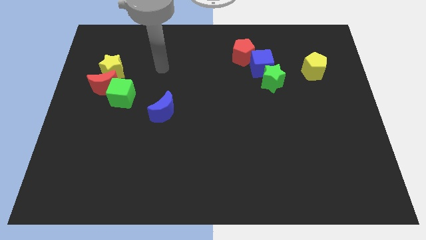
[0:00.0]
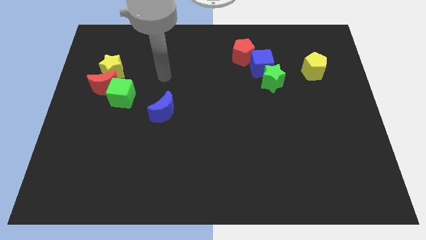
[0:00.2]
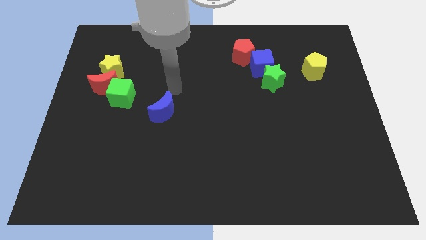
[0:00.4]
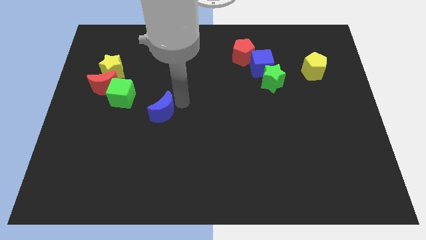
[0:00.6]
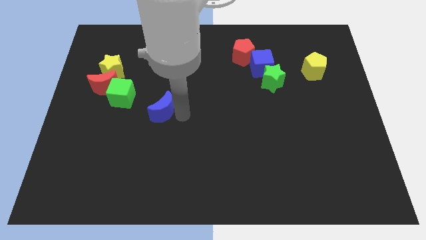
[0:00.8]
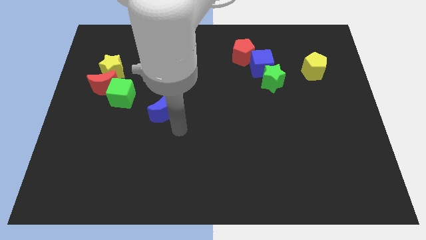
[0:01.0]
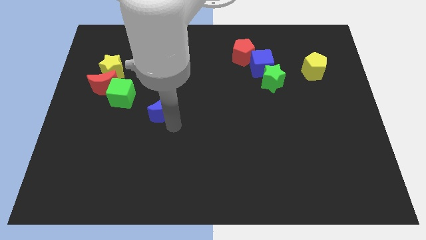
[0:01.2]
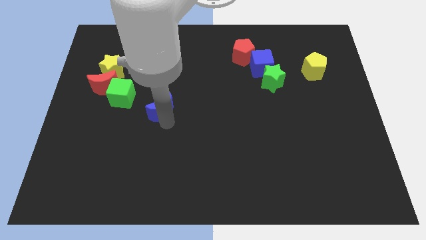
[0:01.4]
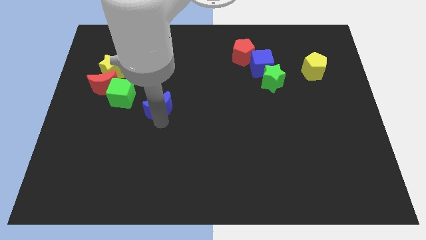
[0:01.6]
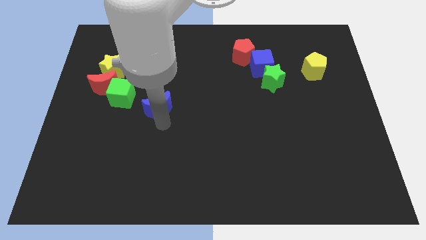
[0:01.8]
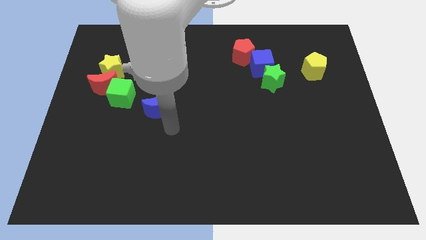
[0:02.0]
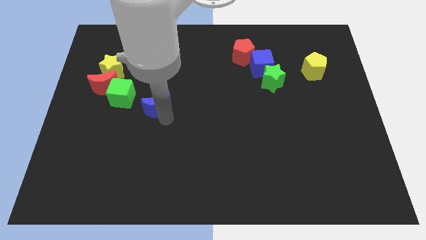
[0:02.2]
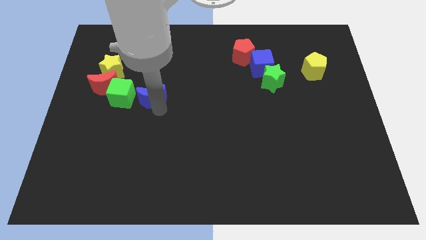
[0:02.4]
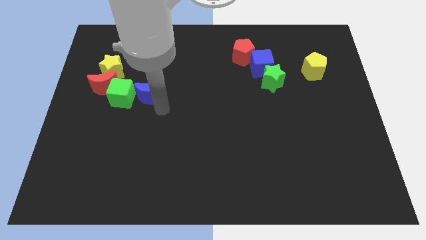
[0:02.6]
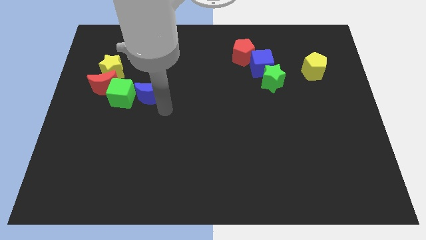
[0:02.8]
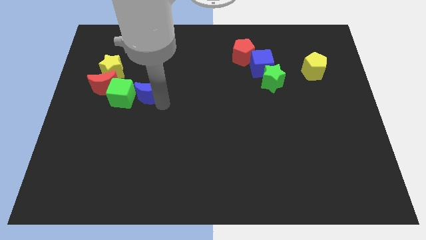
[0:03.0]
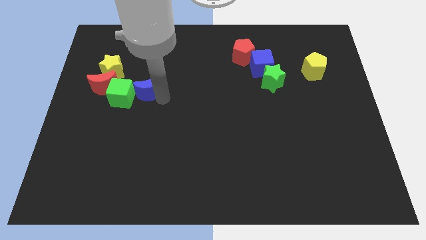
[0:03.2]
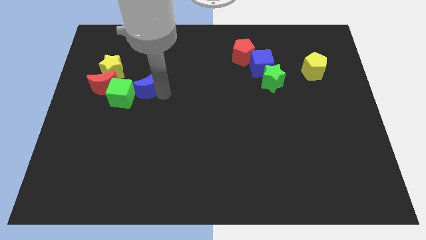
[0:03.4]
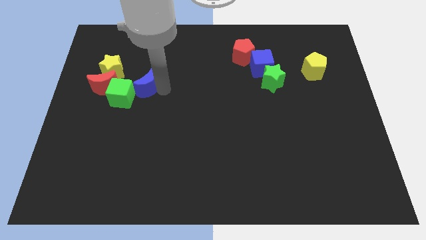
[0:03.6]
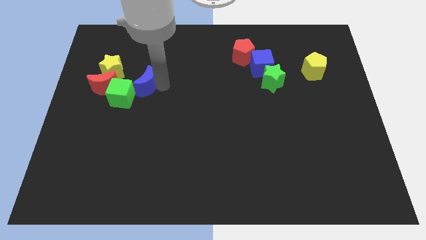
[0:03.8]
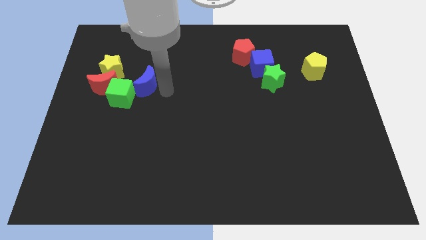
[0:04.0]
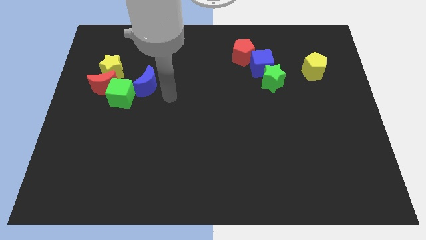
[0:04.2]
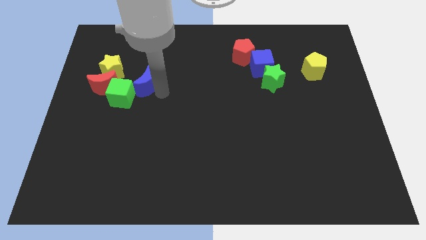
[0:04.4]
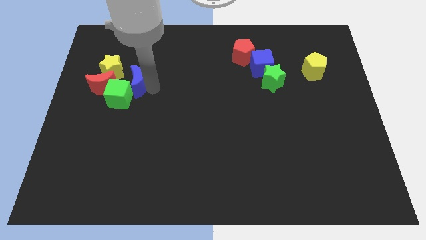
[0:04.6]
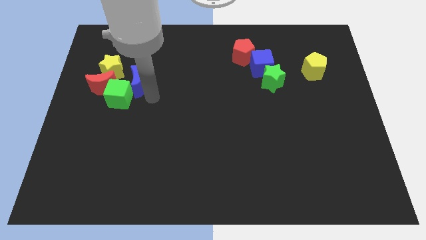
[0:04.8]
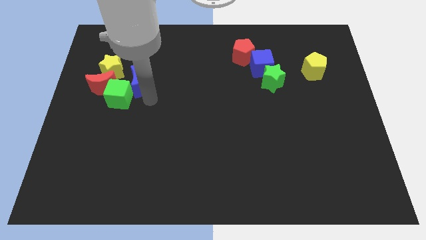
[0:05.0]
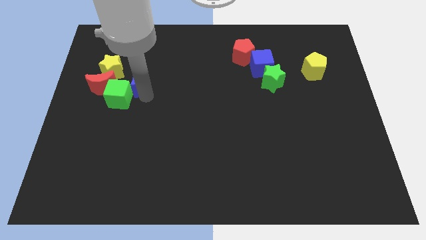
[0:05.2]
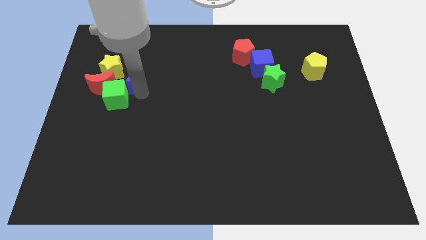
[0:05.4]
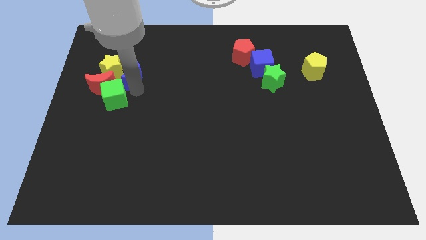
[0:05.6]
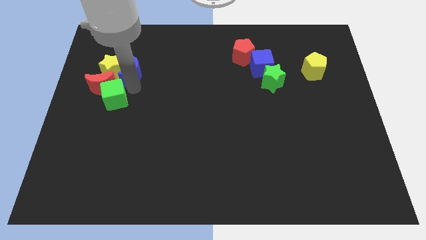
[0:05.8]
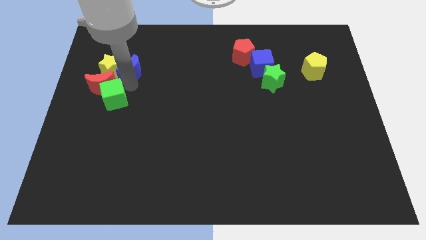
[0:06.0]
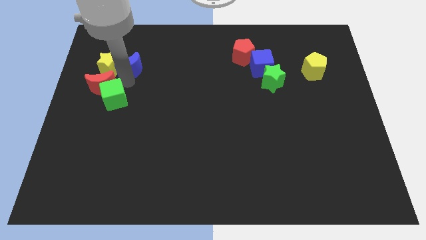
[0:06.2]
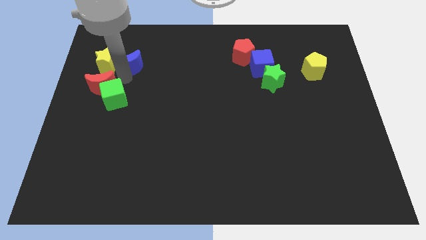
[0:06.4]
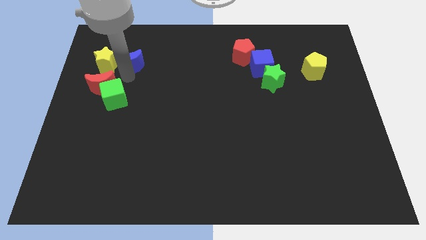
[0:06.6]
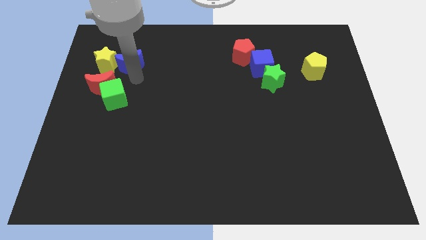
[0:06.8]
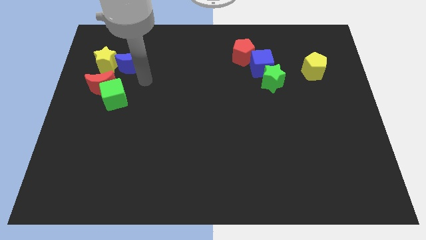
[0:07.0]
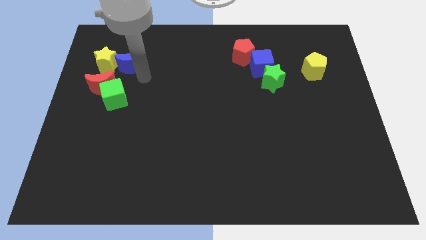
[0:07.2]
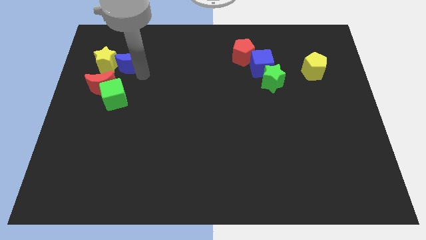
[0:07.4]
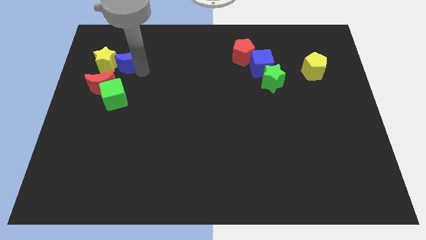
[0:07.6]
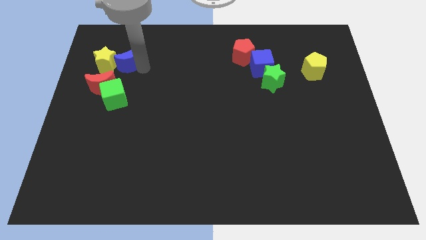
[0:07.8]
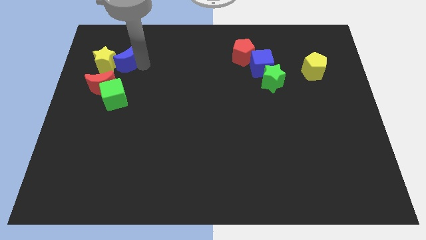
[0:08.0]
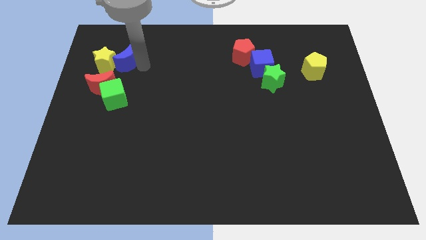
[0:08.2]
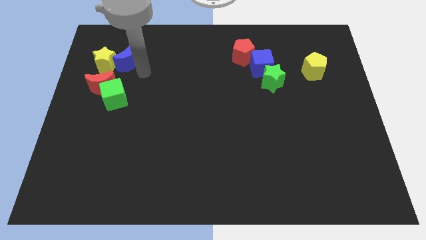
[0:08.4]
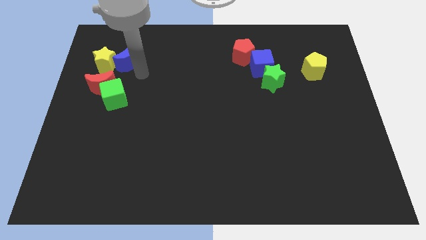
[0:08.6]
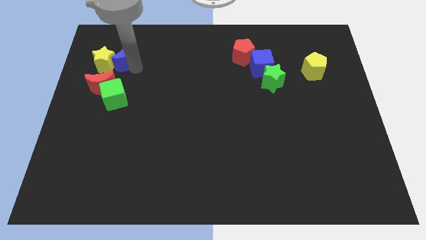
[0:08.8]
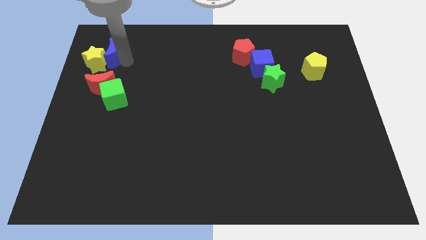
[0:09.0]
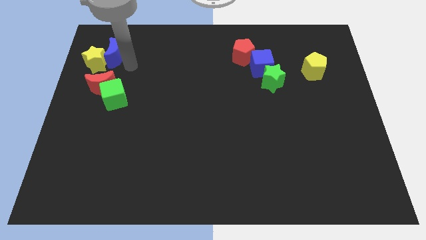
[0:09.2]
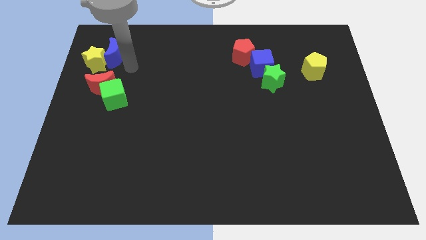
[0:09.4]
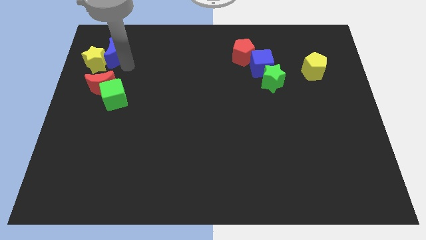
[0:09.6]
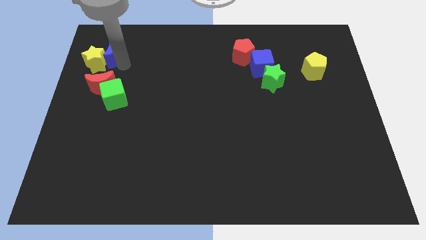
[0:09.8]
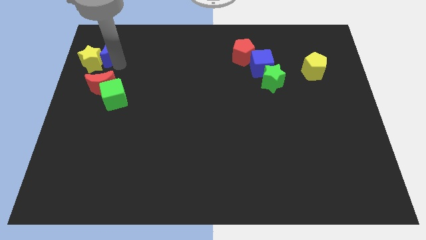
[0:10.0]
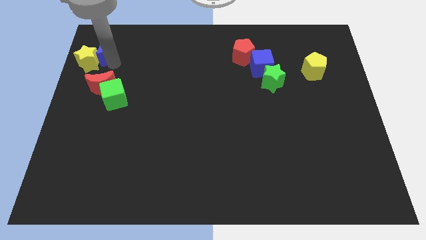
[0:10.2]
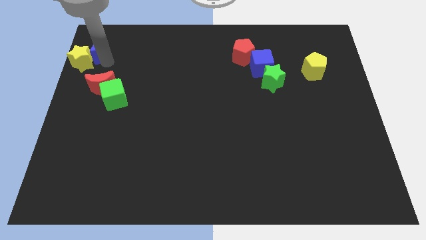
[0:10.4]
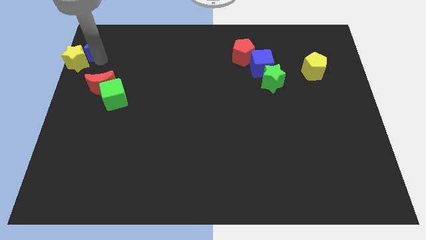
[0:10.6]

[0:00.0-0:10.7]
push the blue moon to the top left
